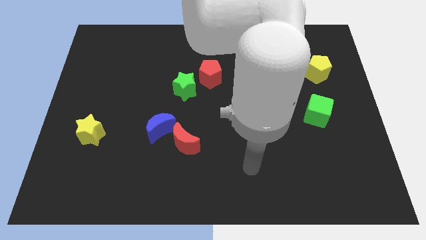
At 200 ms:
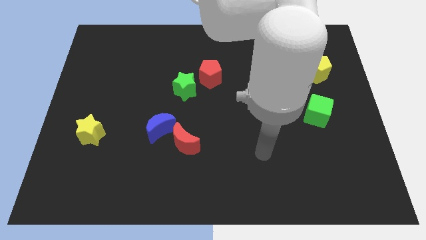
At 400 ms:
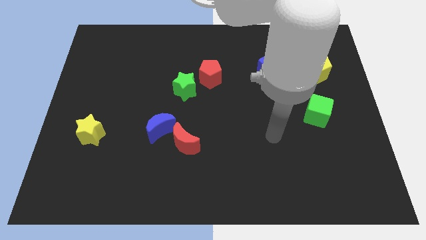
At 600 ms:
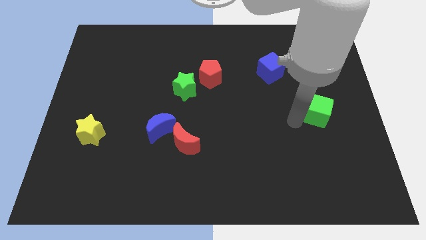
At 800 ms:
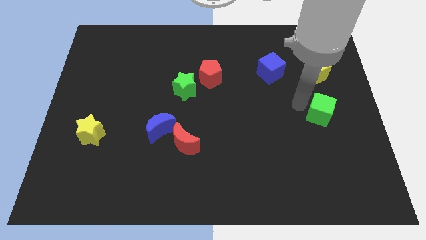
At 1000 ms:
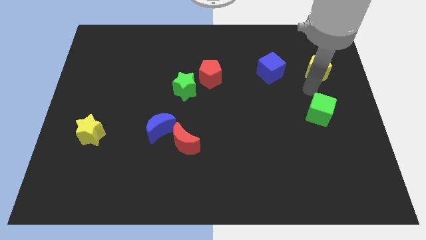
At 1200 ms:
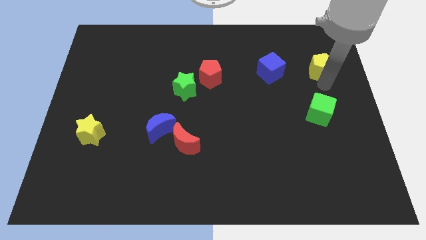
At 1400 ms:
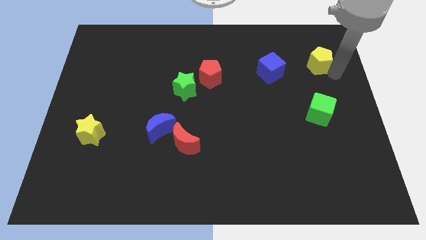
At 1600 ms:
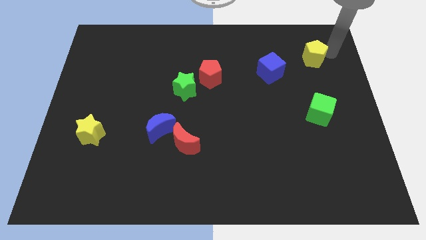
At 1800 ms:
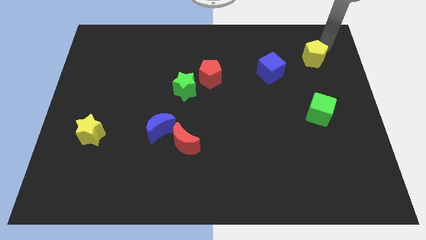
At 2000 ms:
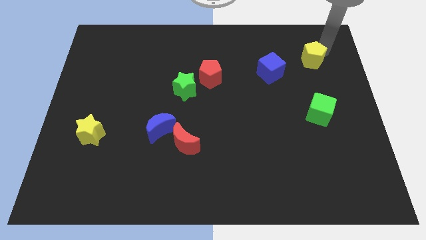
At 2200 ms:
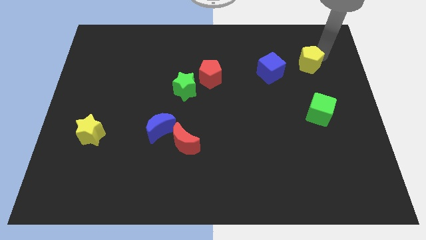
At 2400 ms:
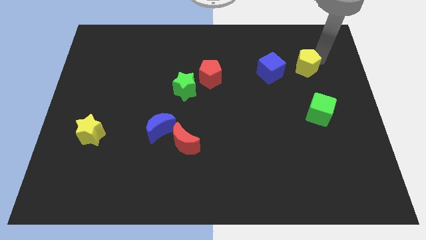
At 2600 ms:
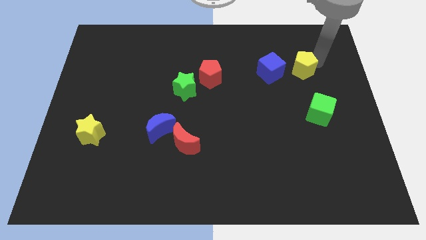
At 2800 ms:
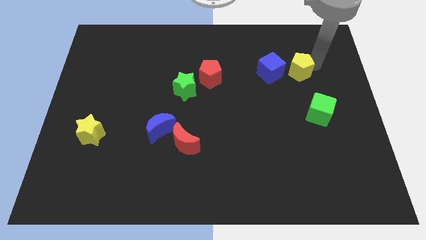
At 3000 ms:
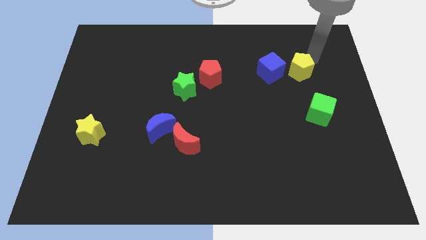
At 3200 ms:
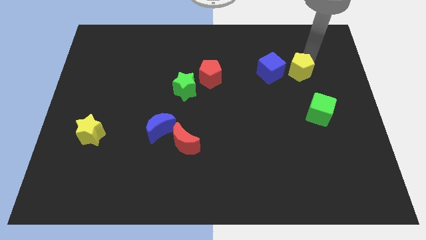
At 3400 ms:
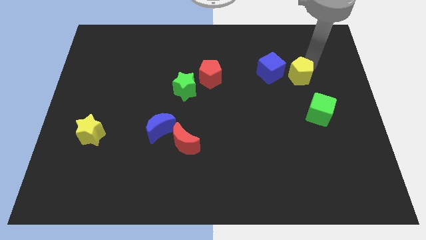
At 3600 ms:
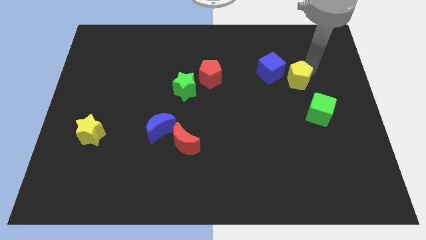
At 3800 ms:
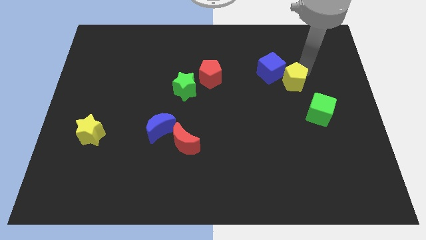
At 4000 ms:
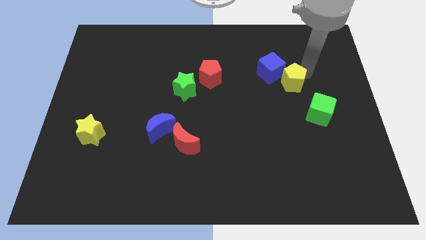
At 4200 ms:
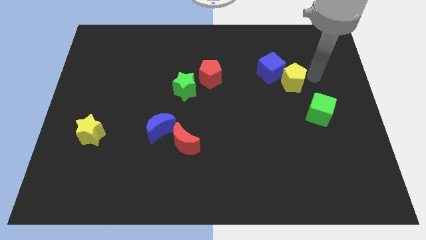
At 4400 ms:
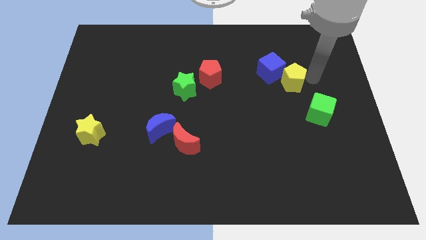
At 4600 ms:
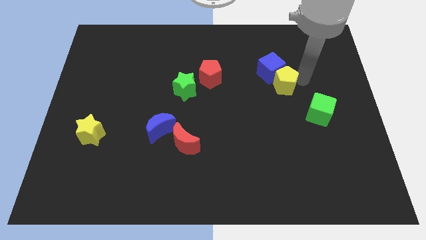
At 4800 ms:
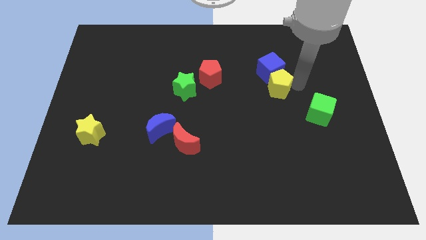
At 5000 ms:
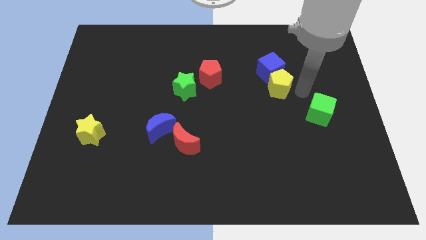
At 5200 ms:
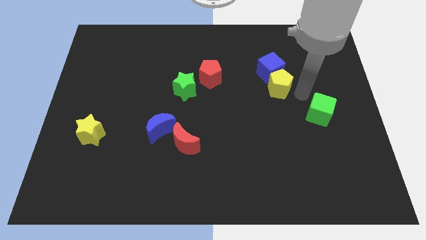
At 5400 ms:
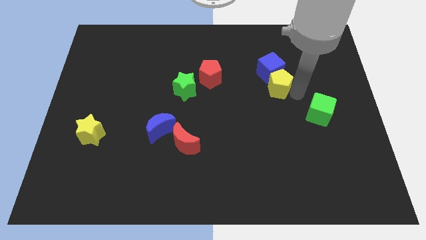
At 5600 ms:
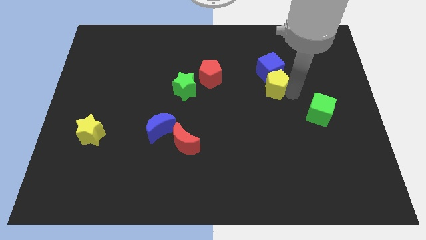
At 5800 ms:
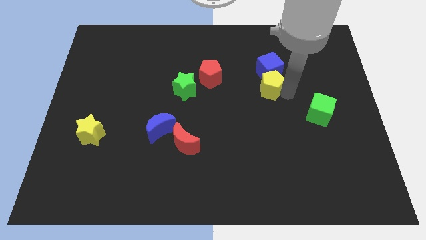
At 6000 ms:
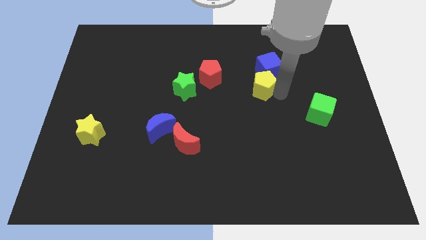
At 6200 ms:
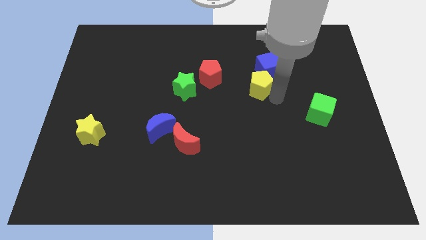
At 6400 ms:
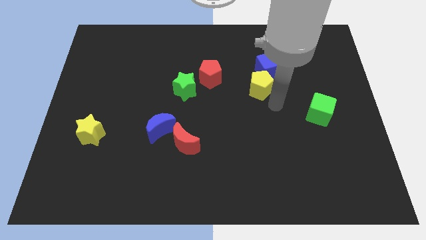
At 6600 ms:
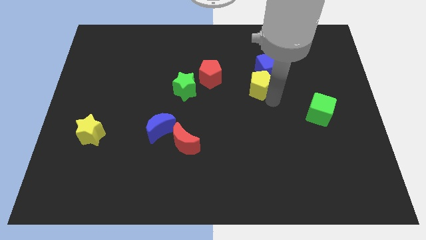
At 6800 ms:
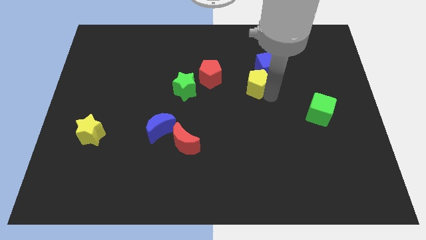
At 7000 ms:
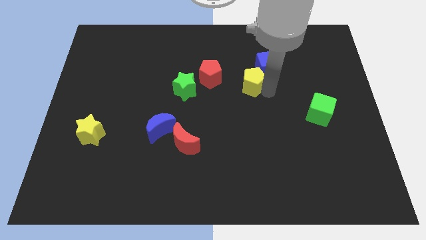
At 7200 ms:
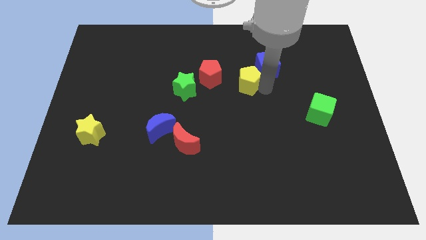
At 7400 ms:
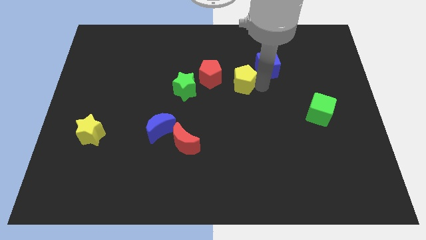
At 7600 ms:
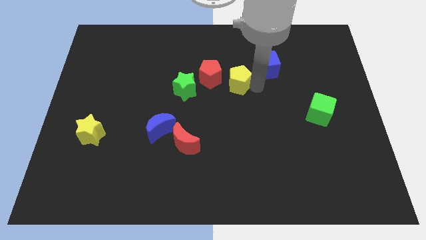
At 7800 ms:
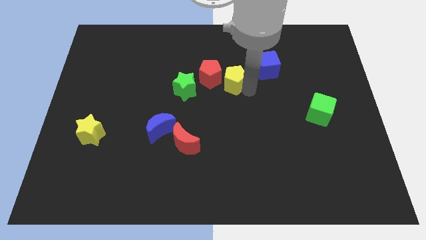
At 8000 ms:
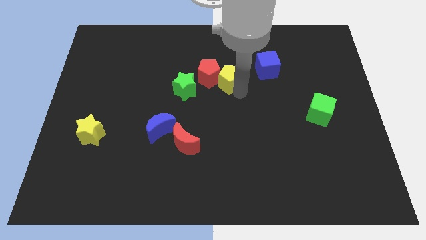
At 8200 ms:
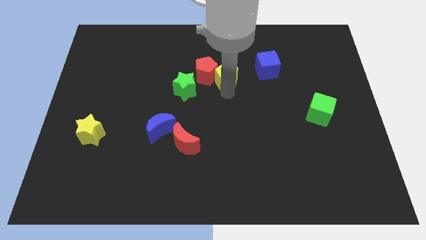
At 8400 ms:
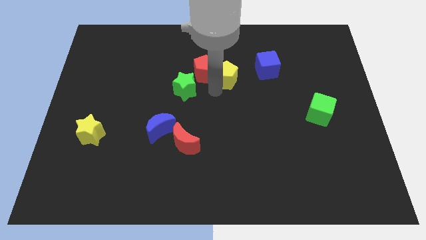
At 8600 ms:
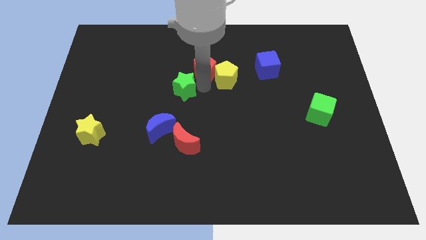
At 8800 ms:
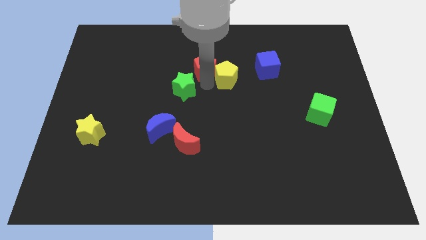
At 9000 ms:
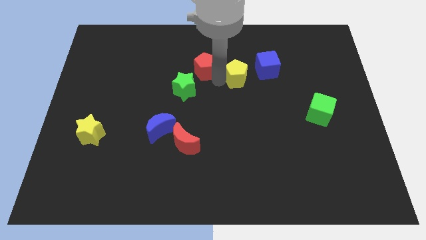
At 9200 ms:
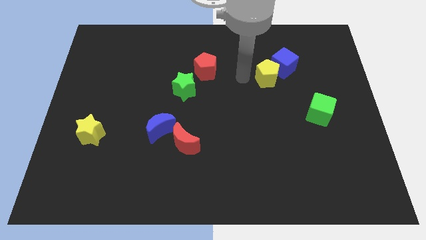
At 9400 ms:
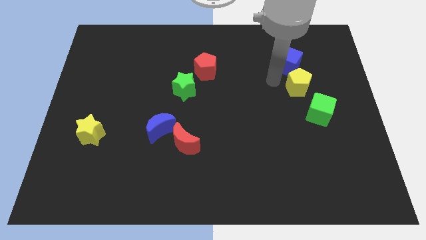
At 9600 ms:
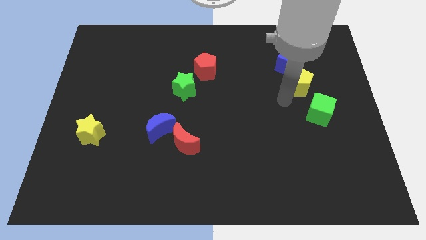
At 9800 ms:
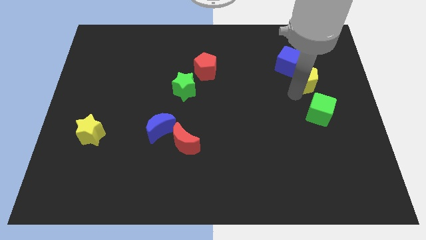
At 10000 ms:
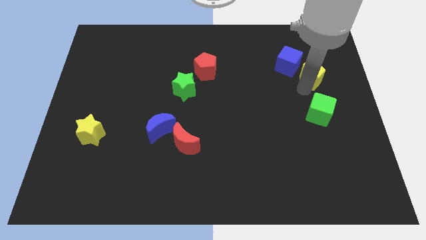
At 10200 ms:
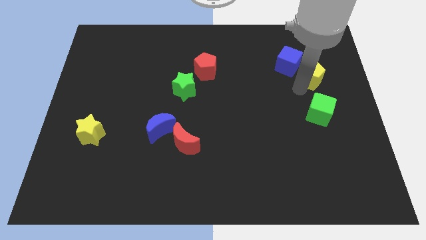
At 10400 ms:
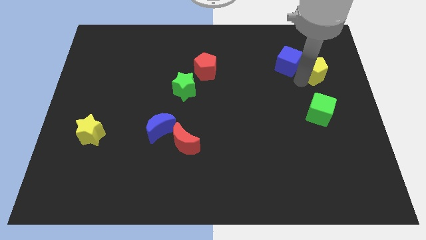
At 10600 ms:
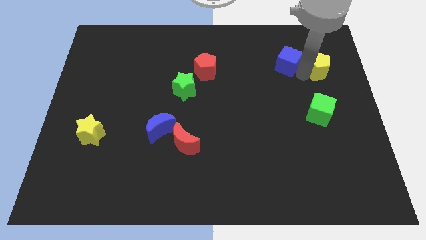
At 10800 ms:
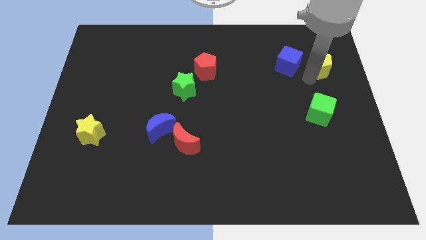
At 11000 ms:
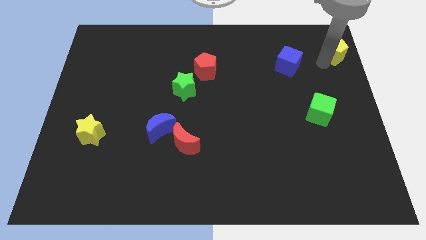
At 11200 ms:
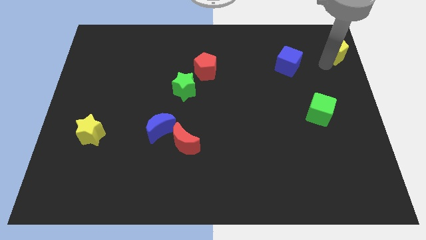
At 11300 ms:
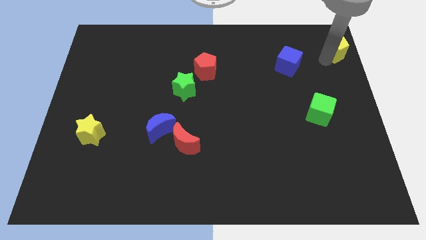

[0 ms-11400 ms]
slide the yellow pentagon to the top right corner

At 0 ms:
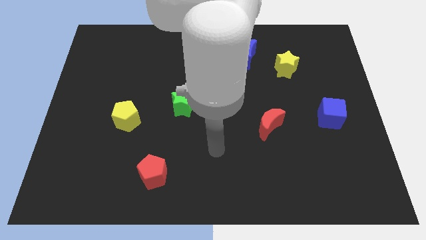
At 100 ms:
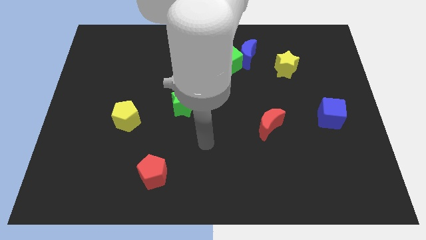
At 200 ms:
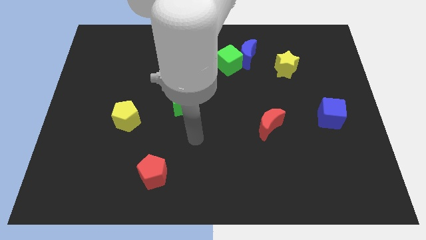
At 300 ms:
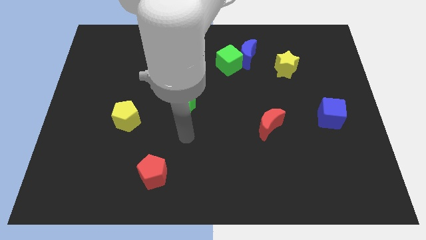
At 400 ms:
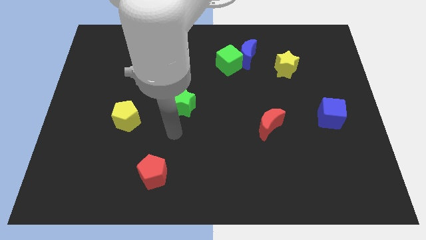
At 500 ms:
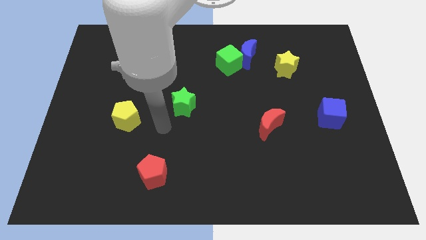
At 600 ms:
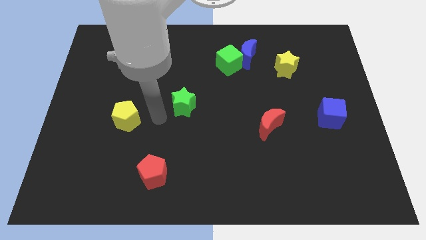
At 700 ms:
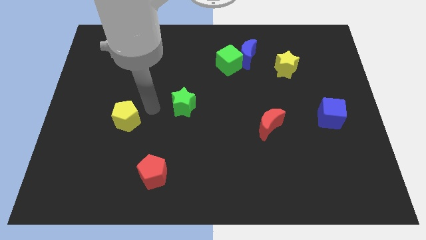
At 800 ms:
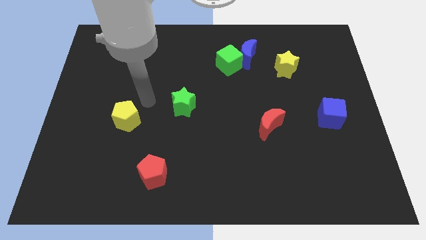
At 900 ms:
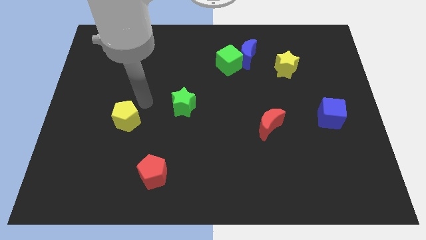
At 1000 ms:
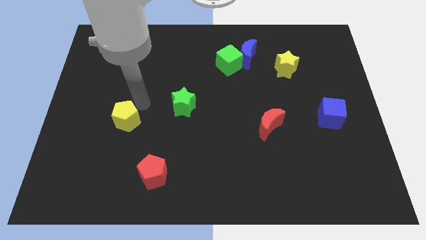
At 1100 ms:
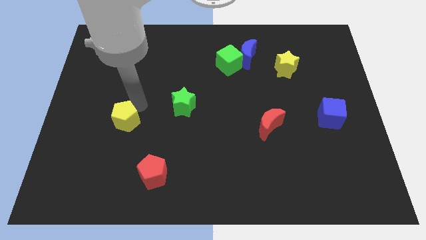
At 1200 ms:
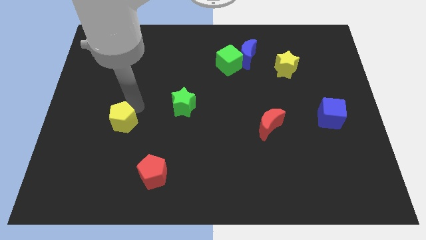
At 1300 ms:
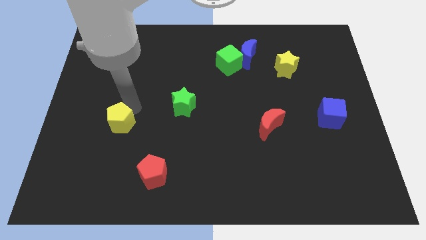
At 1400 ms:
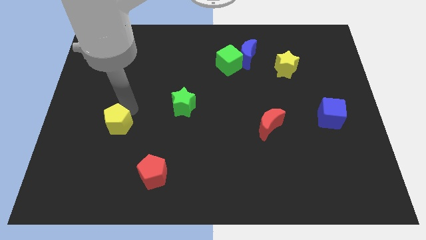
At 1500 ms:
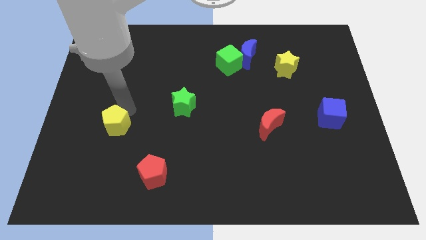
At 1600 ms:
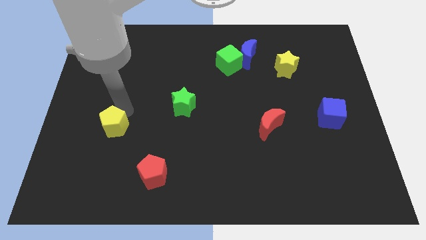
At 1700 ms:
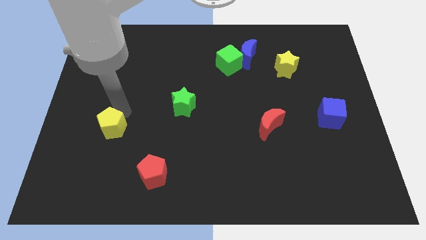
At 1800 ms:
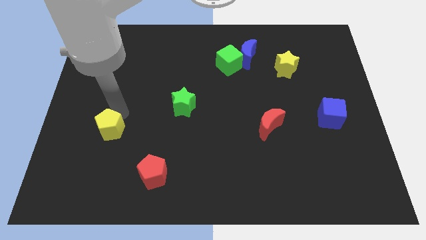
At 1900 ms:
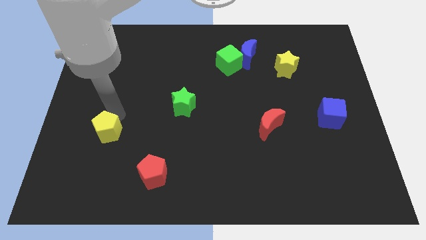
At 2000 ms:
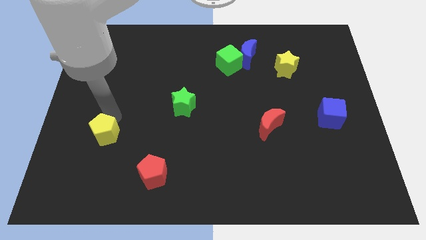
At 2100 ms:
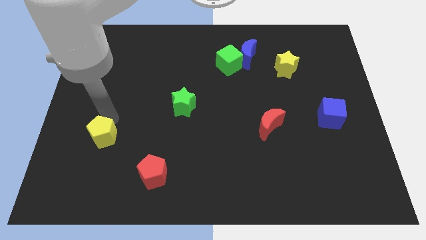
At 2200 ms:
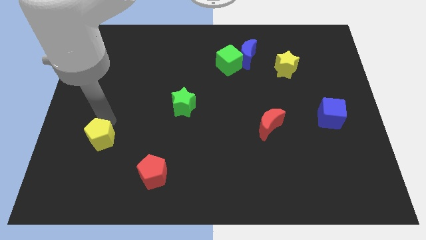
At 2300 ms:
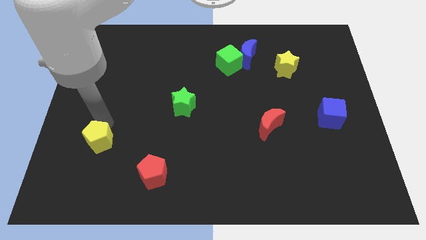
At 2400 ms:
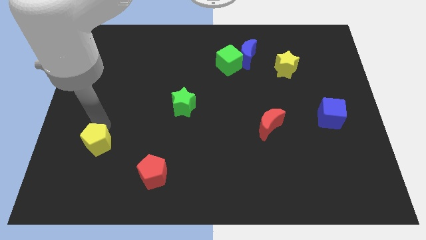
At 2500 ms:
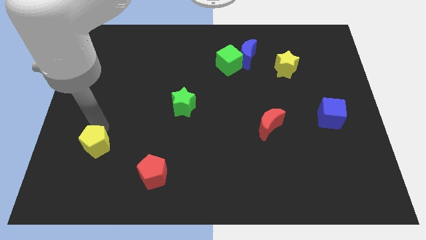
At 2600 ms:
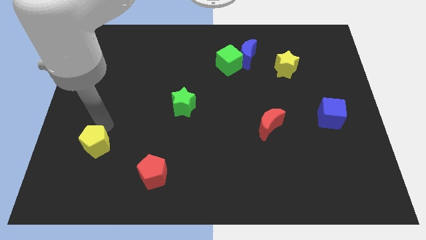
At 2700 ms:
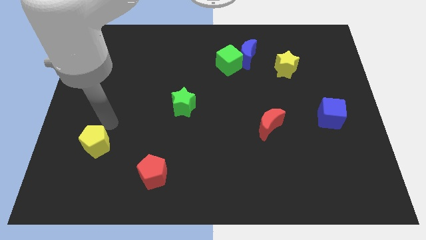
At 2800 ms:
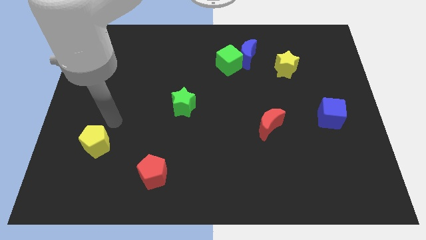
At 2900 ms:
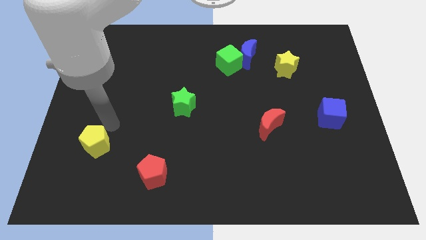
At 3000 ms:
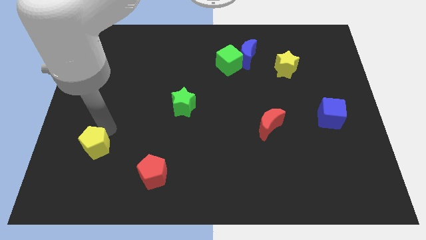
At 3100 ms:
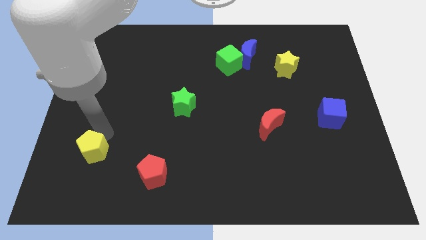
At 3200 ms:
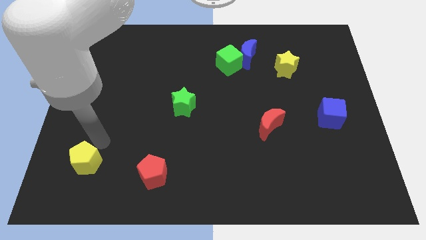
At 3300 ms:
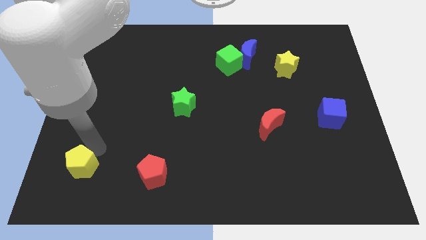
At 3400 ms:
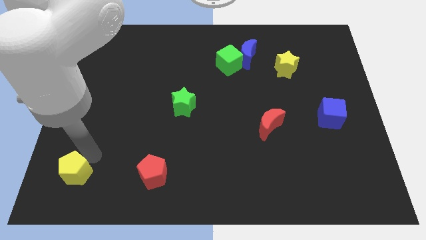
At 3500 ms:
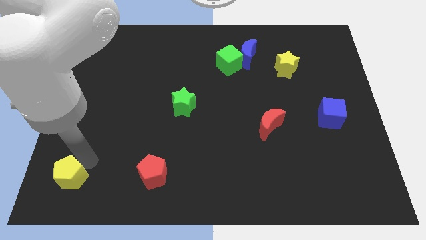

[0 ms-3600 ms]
push the yellow pentagon to the lower left corner
